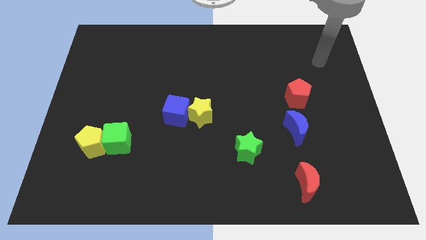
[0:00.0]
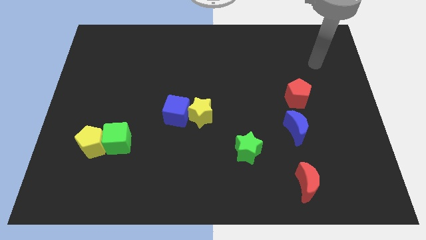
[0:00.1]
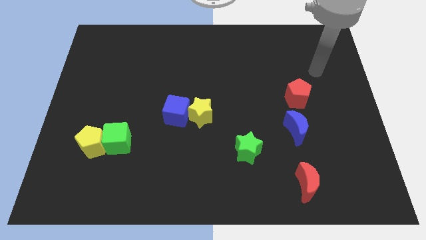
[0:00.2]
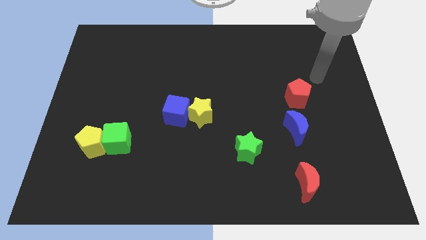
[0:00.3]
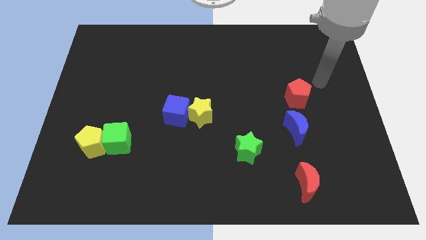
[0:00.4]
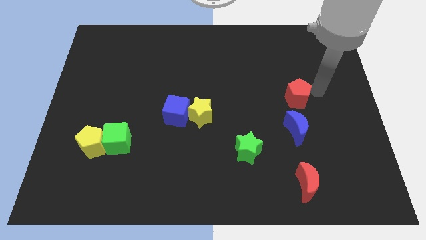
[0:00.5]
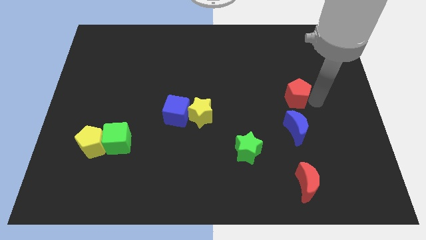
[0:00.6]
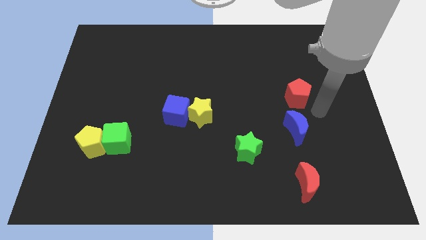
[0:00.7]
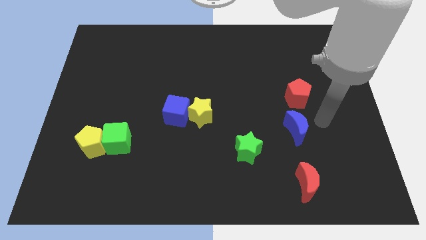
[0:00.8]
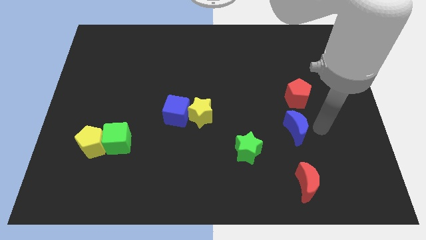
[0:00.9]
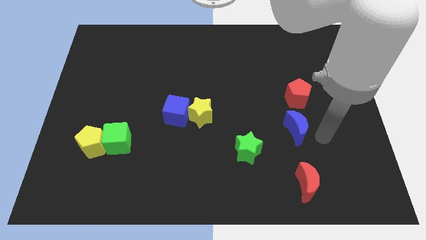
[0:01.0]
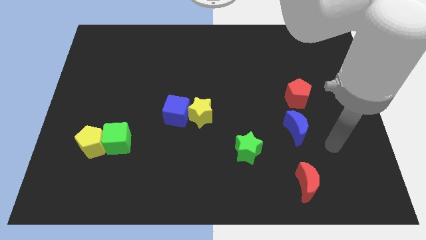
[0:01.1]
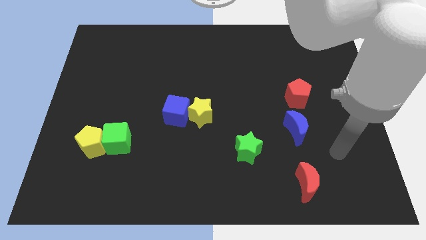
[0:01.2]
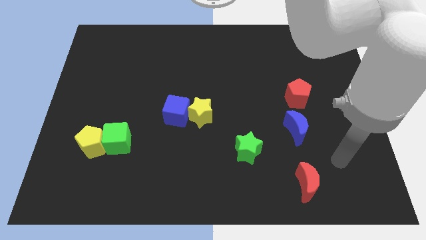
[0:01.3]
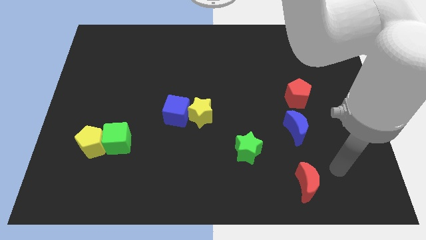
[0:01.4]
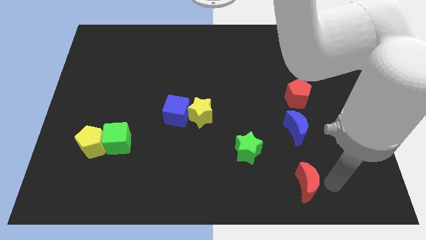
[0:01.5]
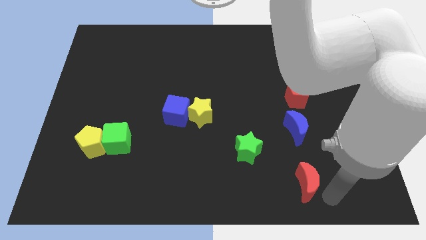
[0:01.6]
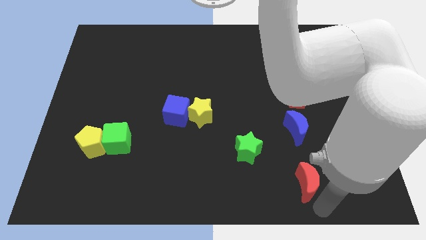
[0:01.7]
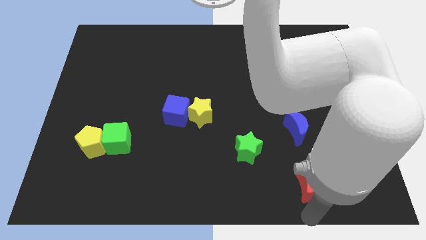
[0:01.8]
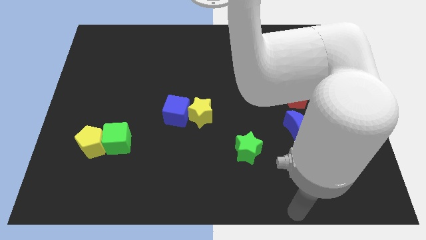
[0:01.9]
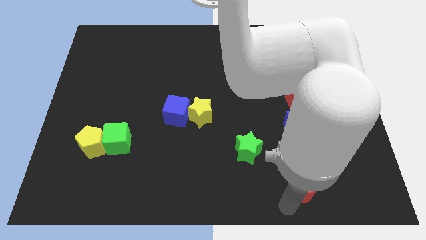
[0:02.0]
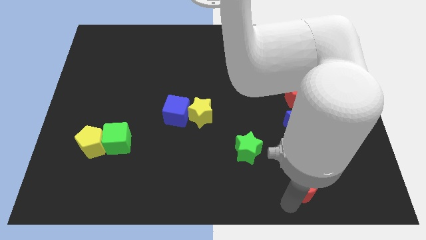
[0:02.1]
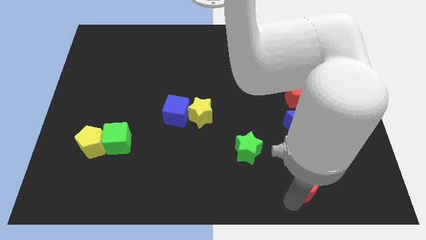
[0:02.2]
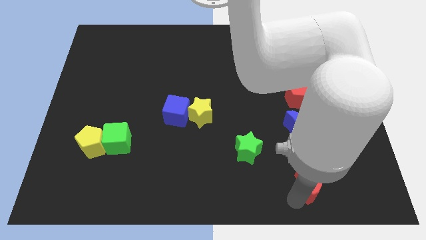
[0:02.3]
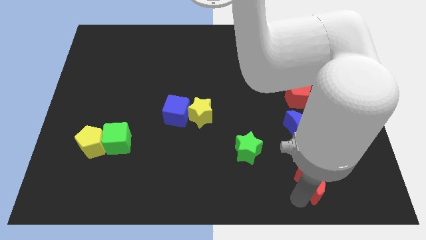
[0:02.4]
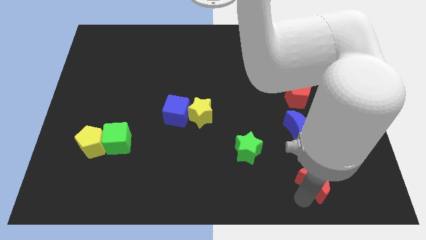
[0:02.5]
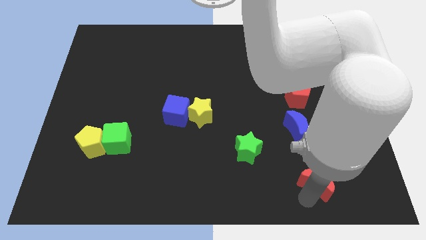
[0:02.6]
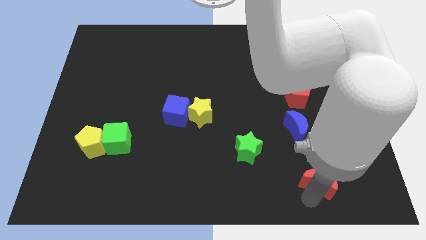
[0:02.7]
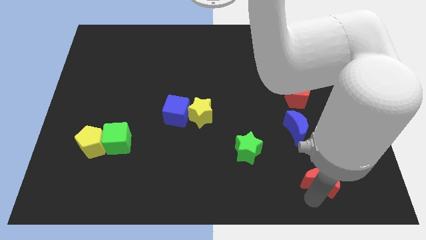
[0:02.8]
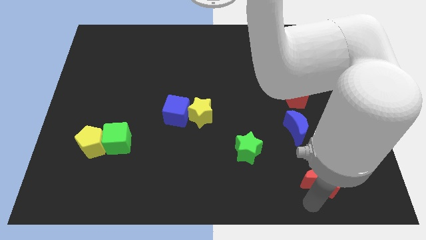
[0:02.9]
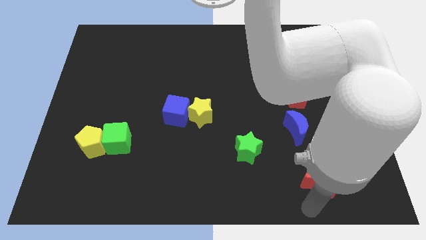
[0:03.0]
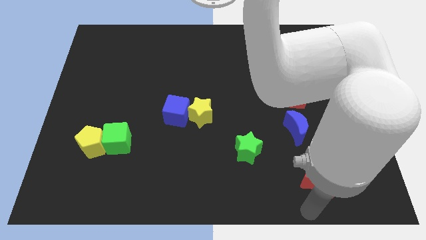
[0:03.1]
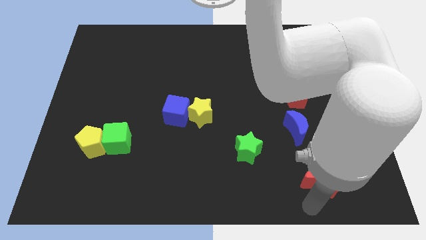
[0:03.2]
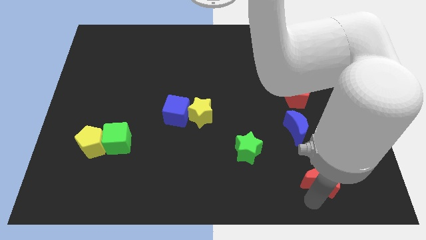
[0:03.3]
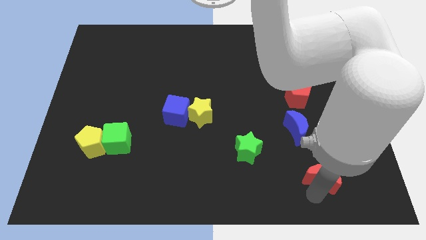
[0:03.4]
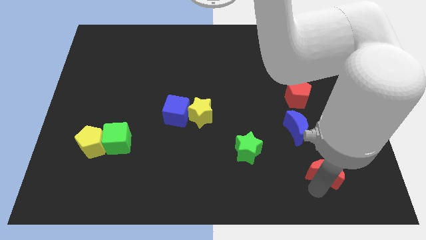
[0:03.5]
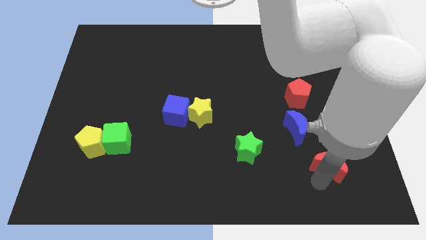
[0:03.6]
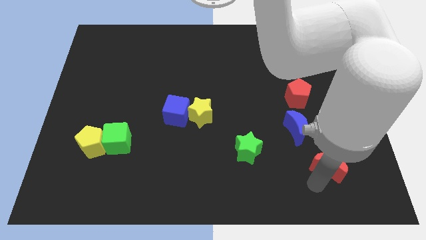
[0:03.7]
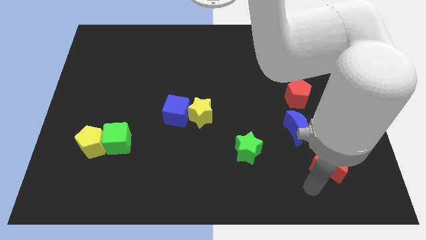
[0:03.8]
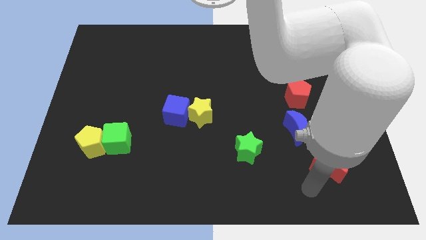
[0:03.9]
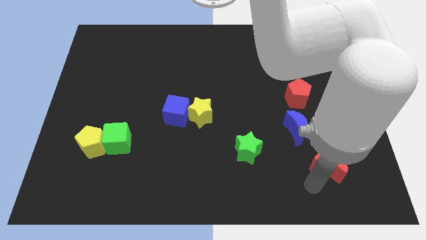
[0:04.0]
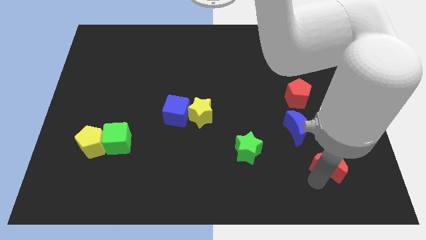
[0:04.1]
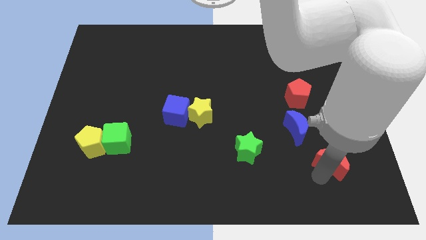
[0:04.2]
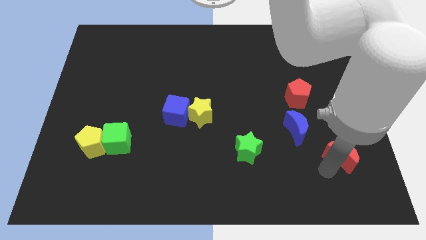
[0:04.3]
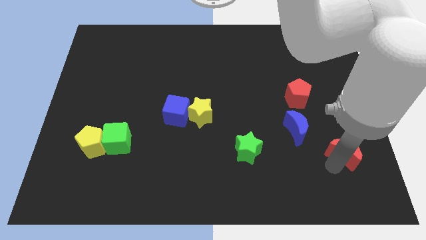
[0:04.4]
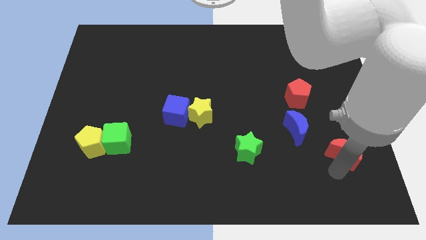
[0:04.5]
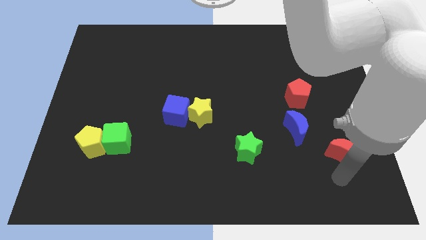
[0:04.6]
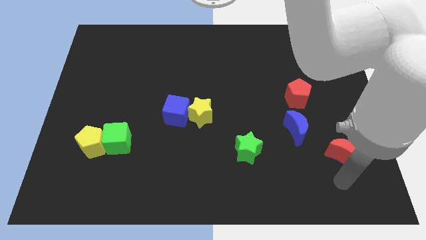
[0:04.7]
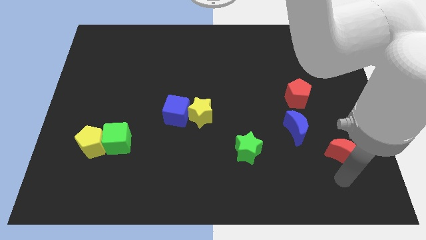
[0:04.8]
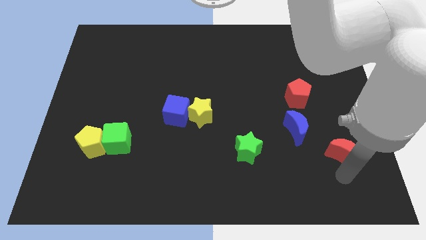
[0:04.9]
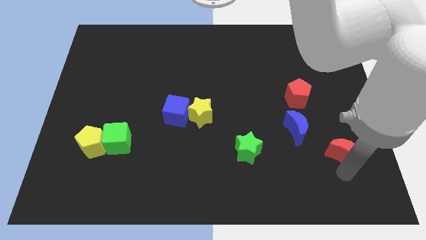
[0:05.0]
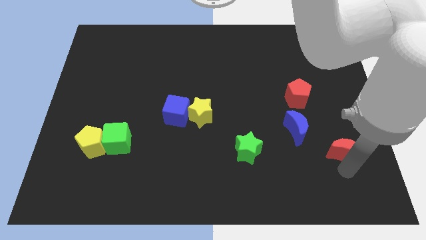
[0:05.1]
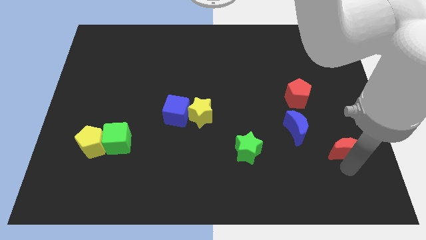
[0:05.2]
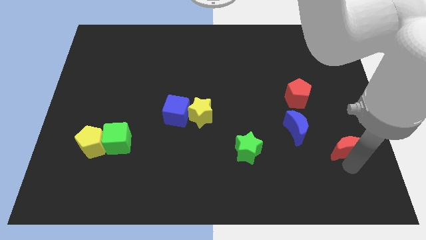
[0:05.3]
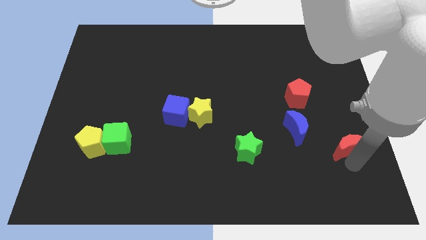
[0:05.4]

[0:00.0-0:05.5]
move the red moon right of the blue moon

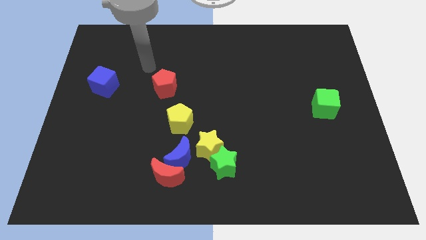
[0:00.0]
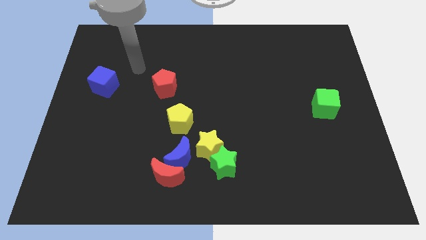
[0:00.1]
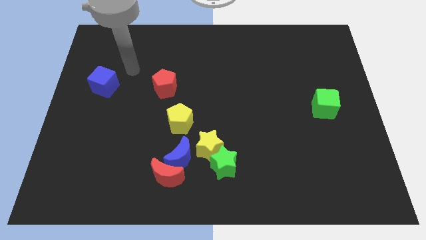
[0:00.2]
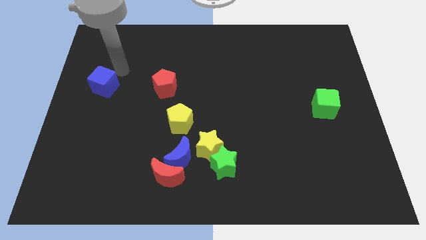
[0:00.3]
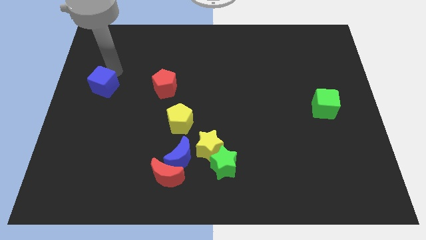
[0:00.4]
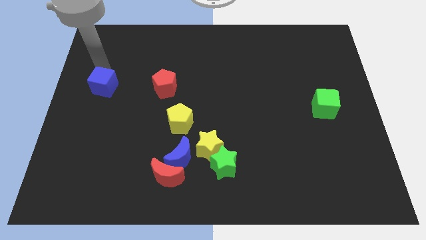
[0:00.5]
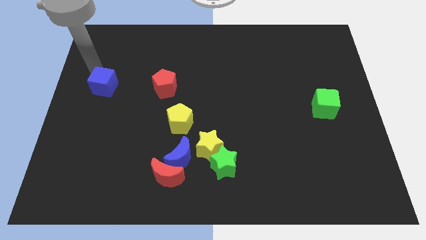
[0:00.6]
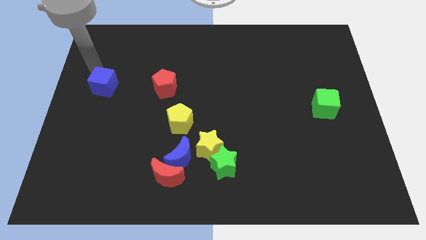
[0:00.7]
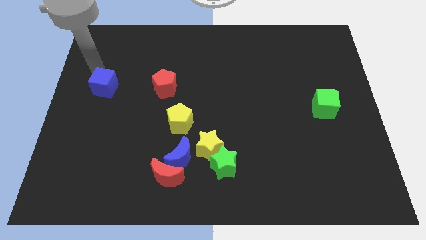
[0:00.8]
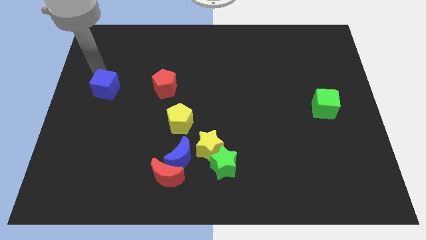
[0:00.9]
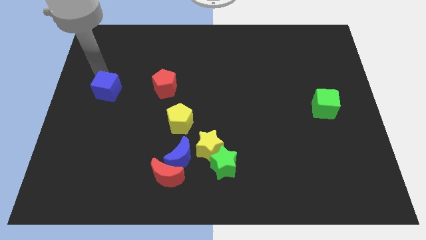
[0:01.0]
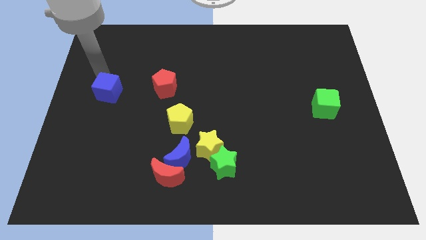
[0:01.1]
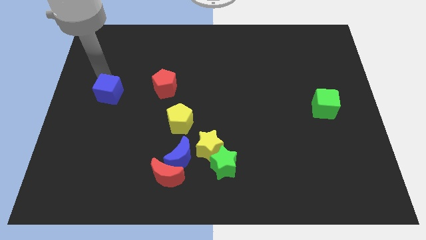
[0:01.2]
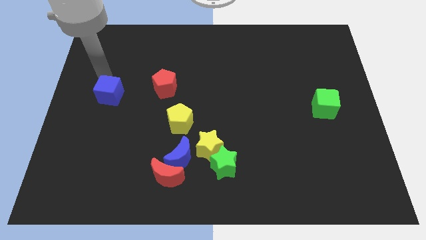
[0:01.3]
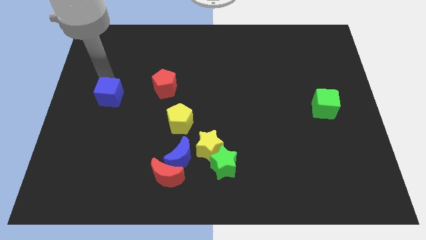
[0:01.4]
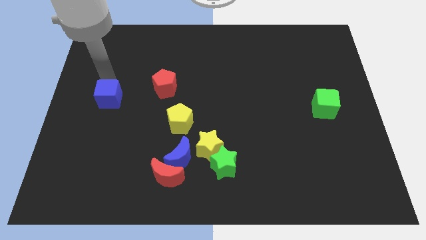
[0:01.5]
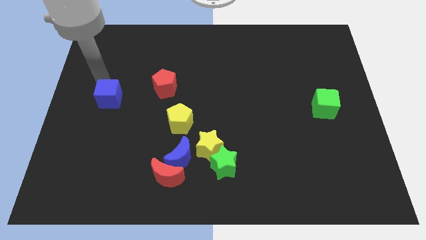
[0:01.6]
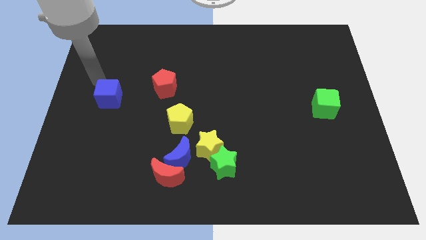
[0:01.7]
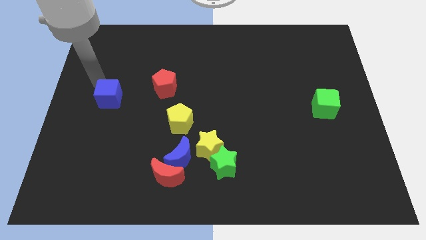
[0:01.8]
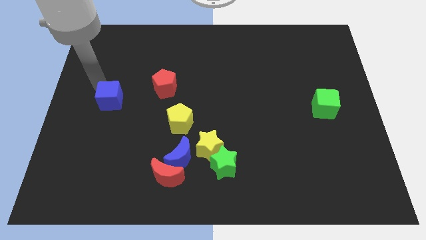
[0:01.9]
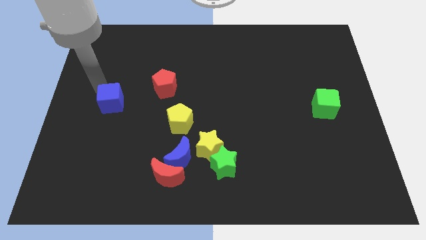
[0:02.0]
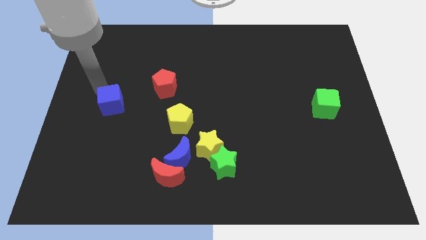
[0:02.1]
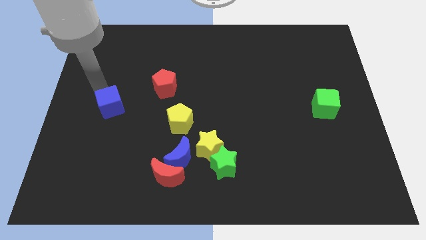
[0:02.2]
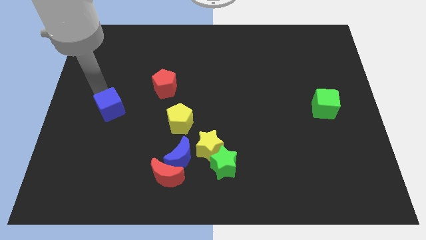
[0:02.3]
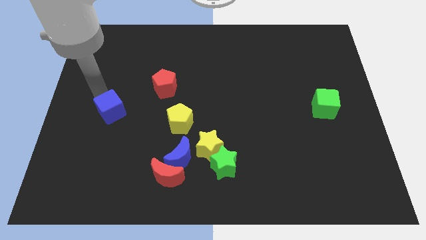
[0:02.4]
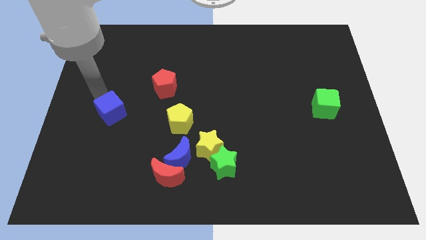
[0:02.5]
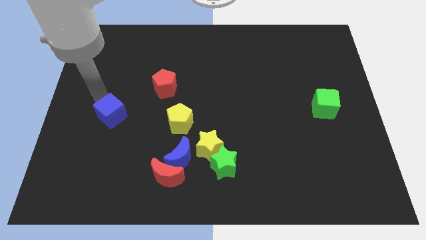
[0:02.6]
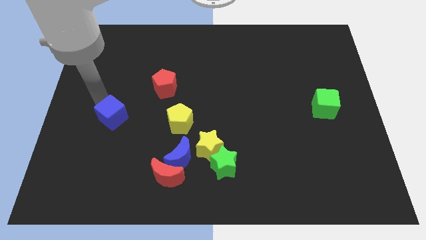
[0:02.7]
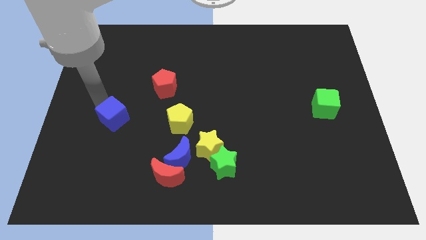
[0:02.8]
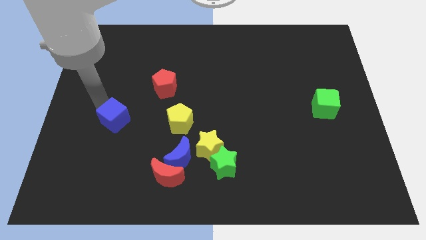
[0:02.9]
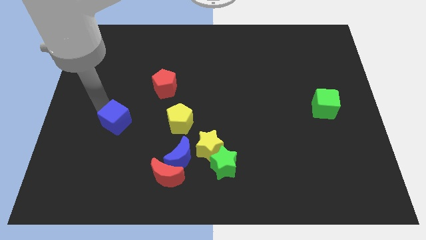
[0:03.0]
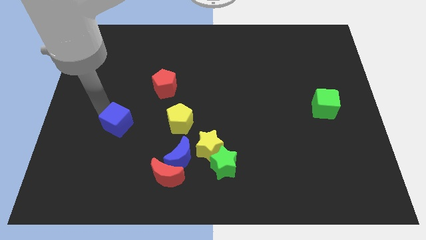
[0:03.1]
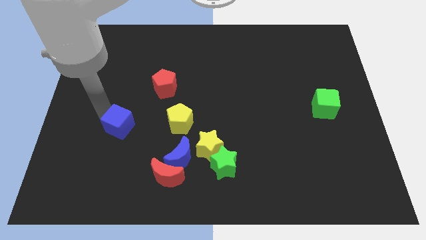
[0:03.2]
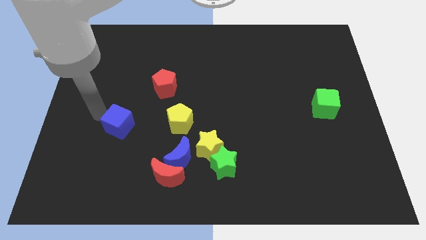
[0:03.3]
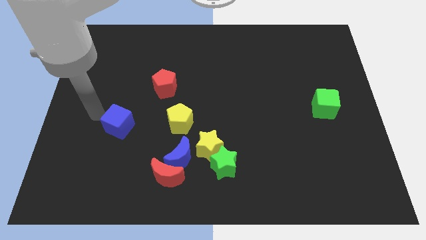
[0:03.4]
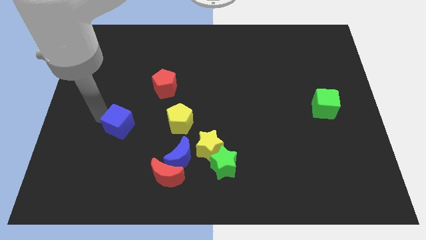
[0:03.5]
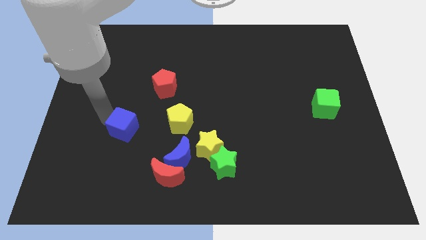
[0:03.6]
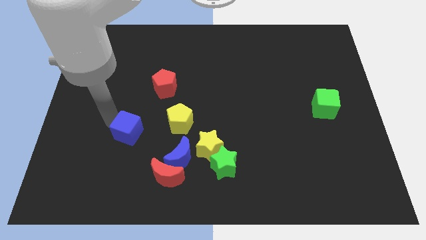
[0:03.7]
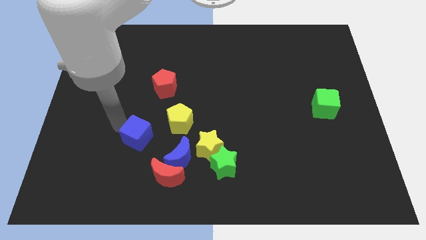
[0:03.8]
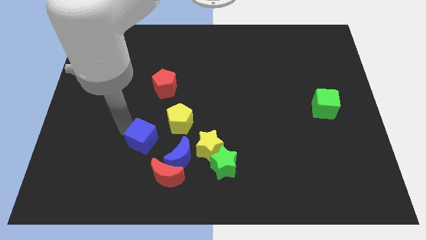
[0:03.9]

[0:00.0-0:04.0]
push the blue cube just left of the yellow star
